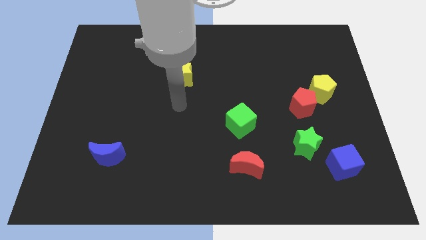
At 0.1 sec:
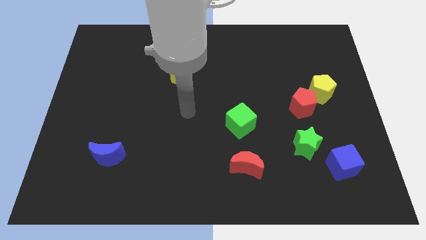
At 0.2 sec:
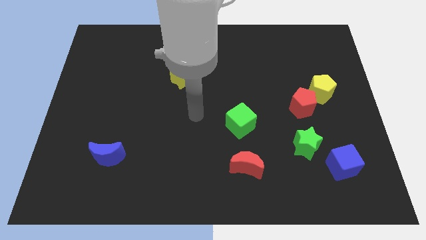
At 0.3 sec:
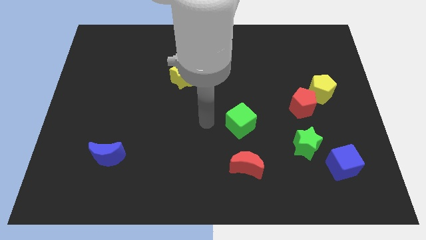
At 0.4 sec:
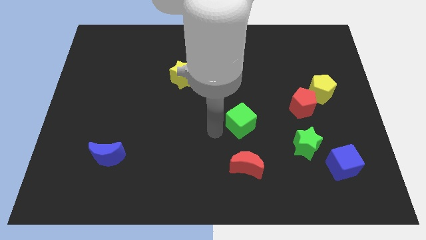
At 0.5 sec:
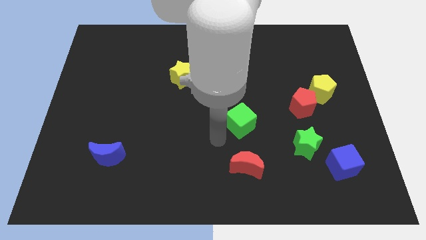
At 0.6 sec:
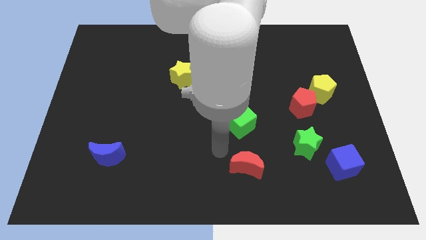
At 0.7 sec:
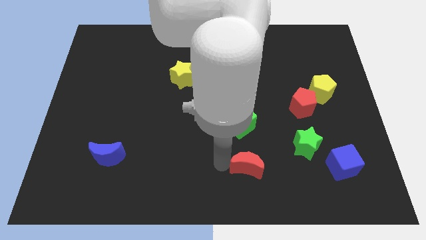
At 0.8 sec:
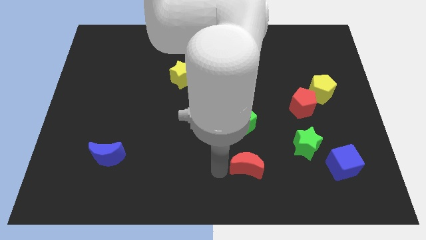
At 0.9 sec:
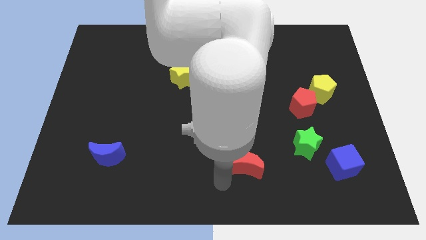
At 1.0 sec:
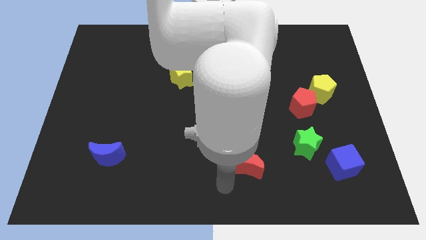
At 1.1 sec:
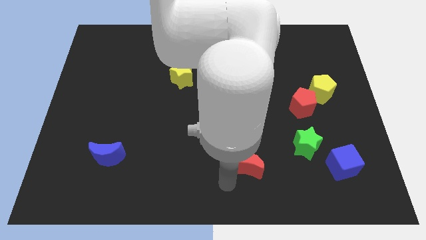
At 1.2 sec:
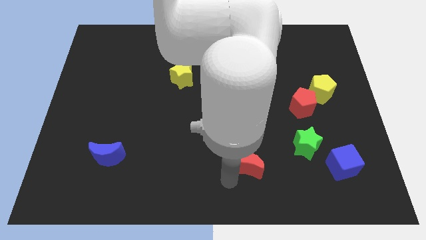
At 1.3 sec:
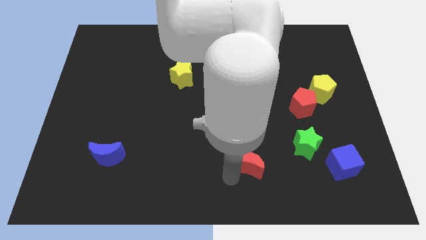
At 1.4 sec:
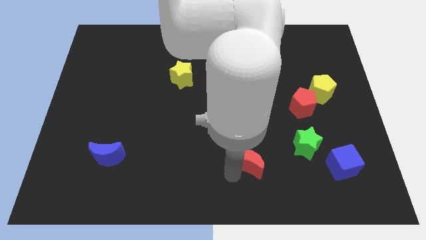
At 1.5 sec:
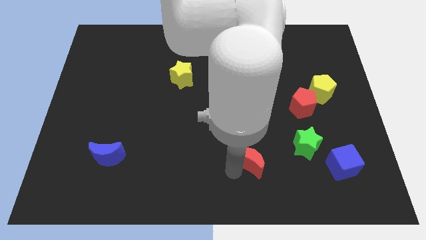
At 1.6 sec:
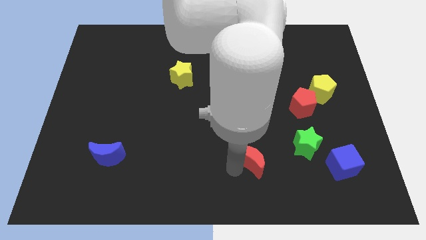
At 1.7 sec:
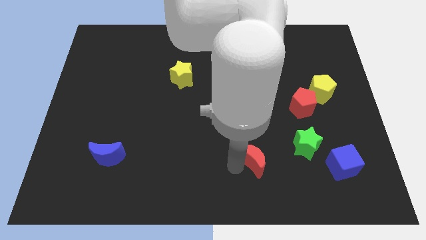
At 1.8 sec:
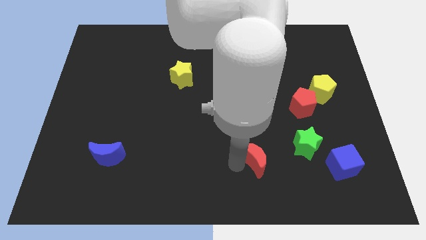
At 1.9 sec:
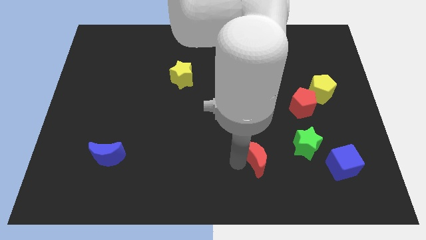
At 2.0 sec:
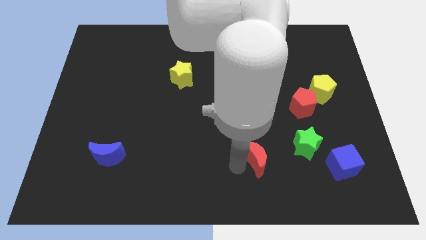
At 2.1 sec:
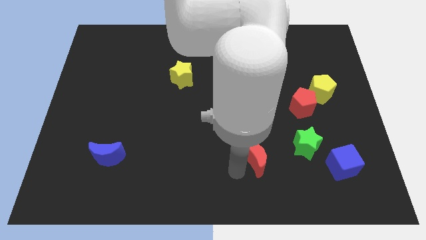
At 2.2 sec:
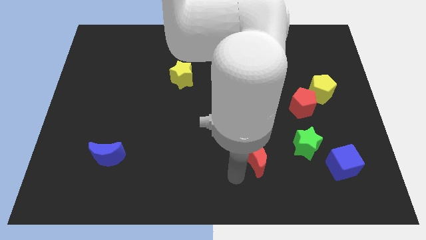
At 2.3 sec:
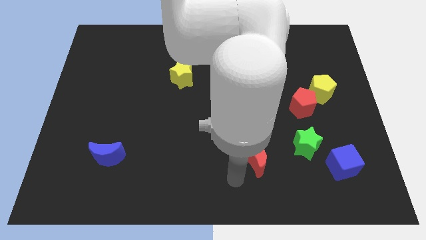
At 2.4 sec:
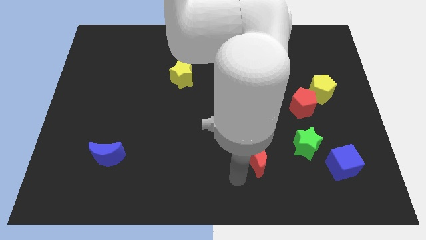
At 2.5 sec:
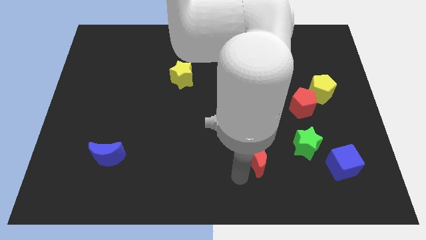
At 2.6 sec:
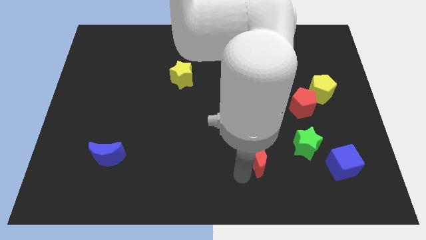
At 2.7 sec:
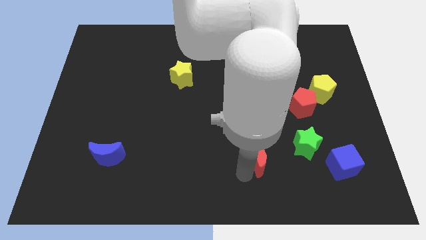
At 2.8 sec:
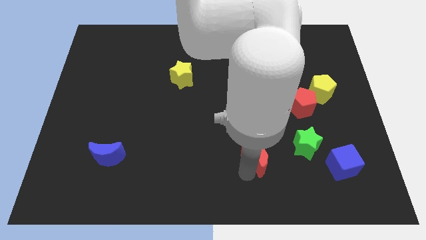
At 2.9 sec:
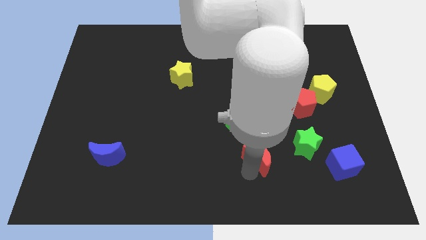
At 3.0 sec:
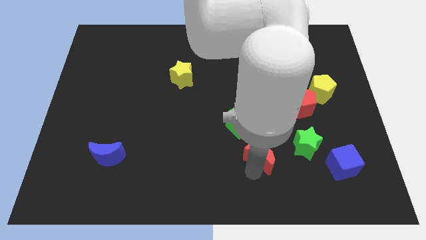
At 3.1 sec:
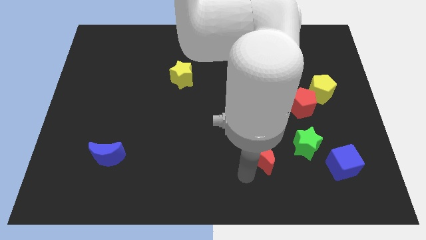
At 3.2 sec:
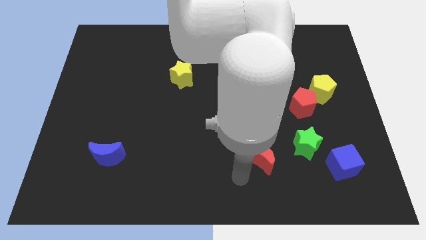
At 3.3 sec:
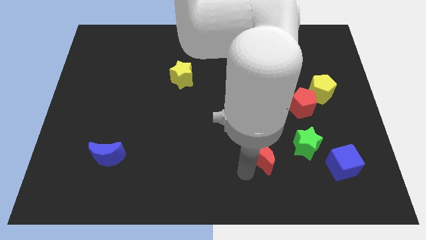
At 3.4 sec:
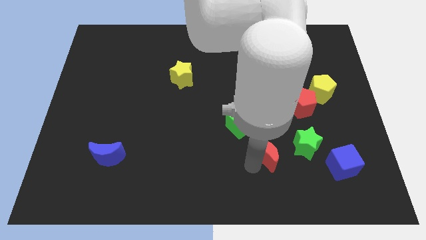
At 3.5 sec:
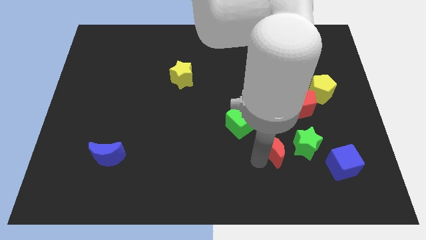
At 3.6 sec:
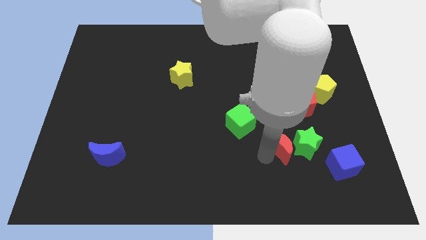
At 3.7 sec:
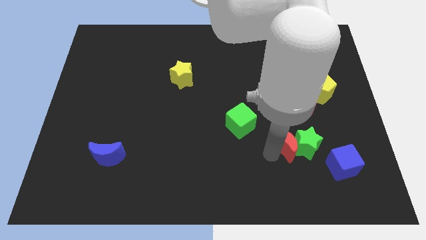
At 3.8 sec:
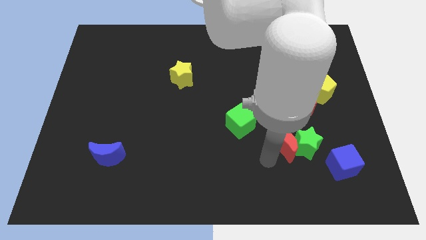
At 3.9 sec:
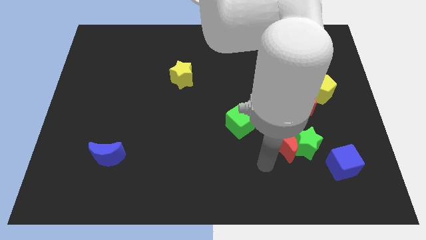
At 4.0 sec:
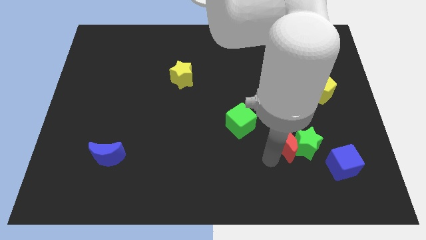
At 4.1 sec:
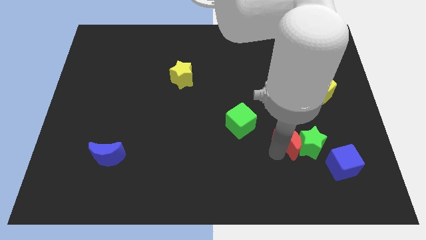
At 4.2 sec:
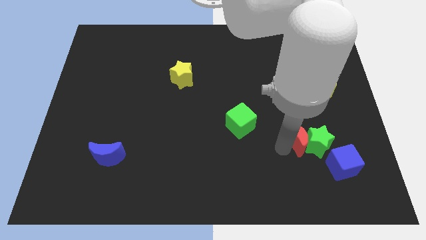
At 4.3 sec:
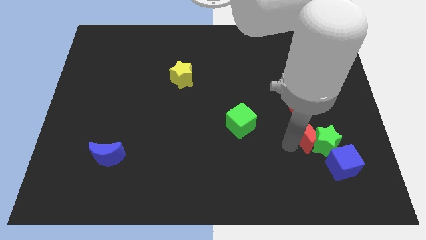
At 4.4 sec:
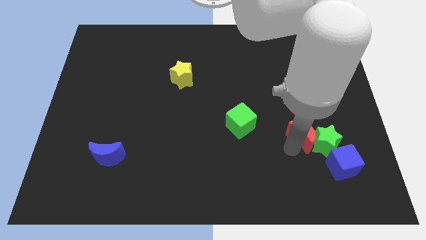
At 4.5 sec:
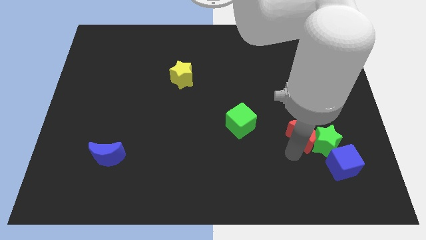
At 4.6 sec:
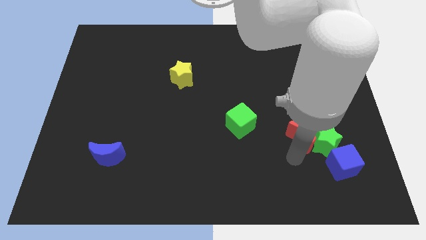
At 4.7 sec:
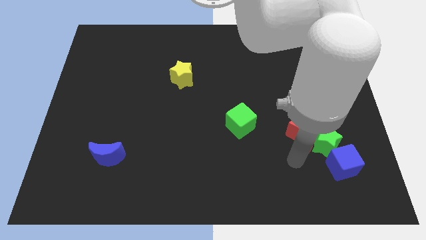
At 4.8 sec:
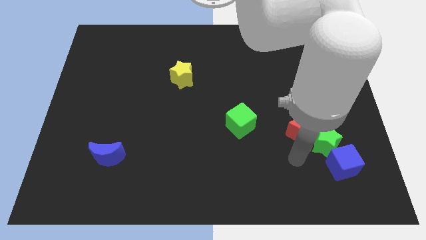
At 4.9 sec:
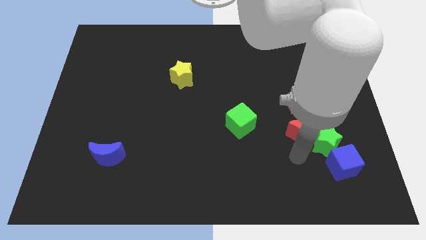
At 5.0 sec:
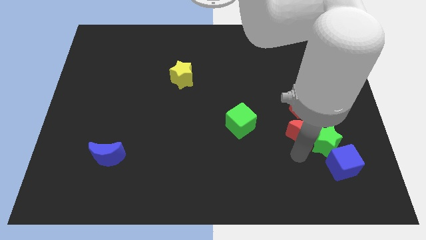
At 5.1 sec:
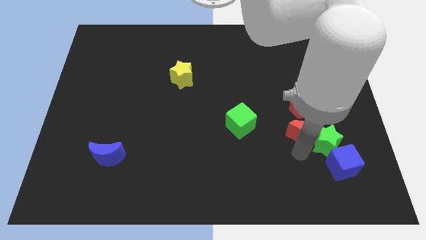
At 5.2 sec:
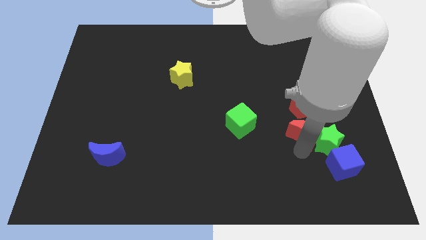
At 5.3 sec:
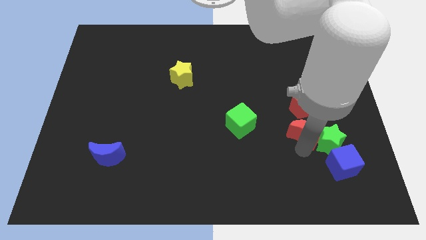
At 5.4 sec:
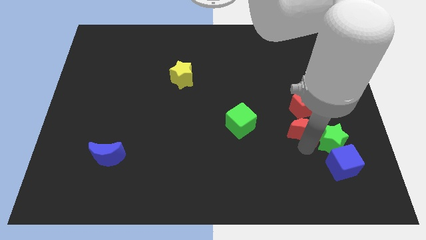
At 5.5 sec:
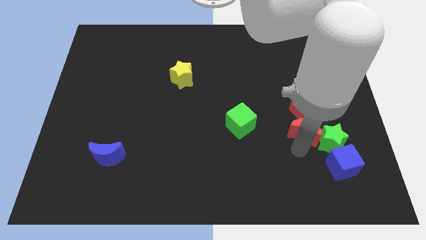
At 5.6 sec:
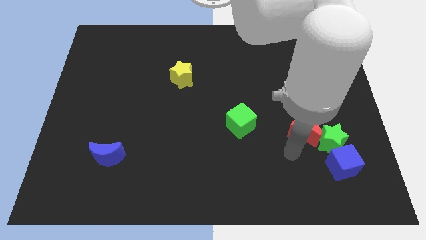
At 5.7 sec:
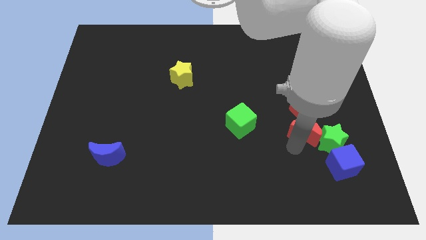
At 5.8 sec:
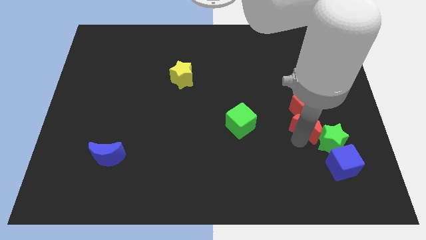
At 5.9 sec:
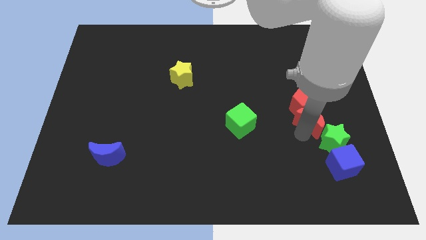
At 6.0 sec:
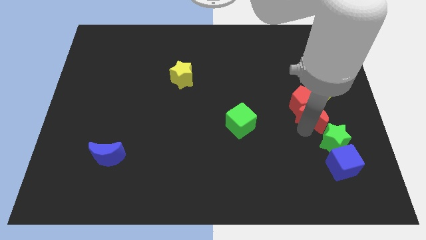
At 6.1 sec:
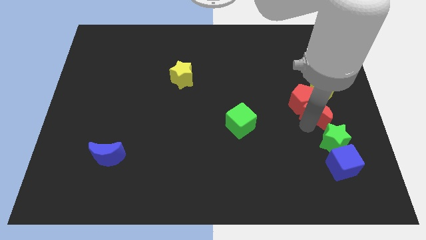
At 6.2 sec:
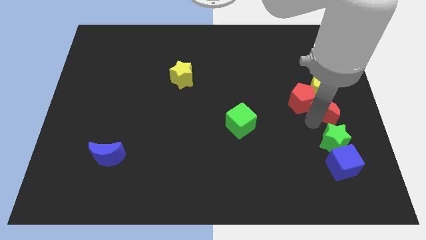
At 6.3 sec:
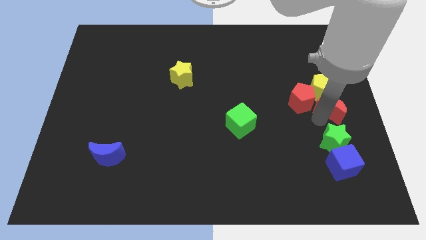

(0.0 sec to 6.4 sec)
slide the red moon towards the yellow pentagon
